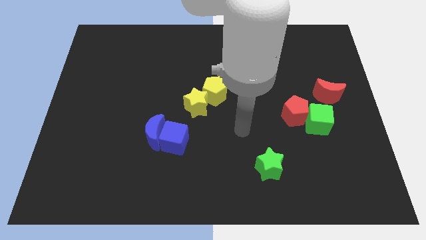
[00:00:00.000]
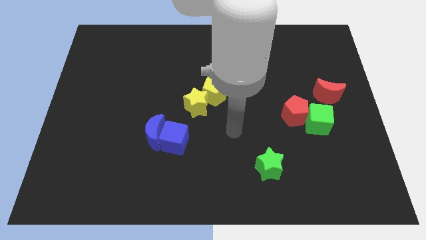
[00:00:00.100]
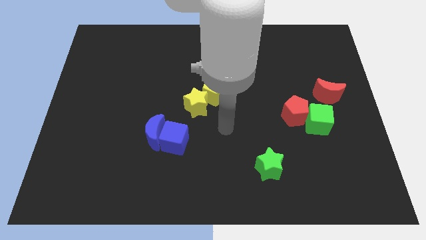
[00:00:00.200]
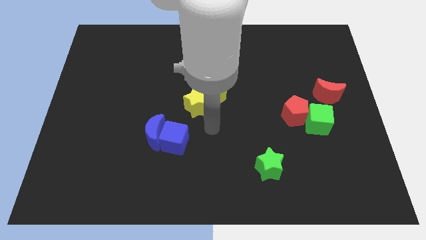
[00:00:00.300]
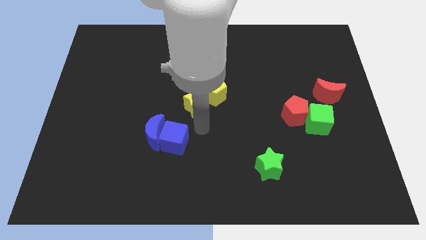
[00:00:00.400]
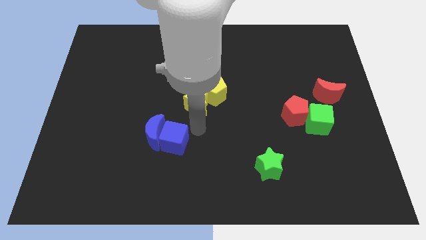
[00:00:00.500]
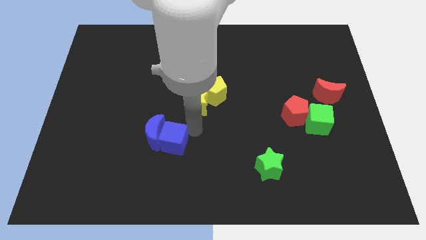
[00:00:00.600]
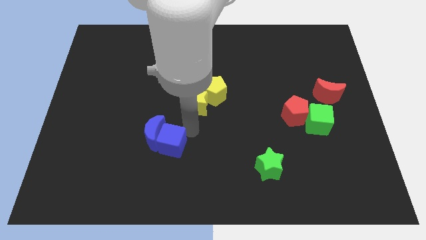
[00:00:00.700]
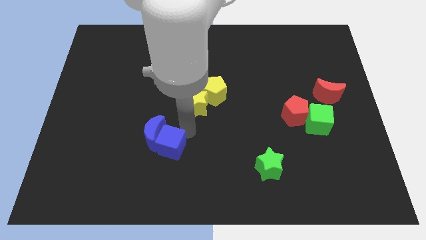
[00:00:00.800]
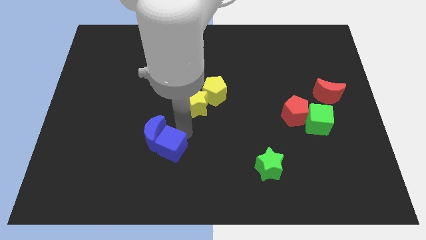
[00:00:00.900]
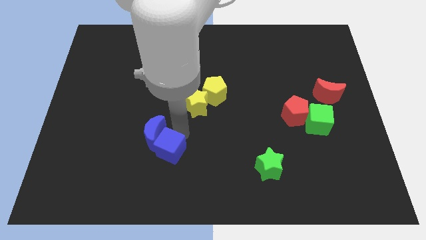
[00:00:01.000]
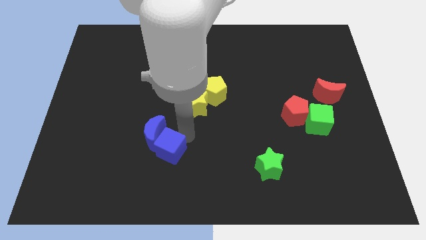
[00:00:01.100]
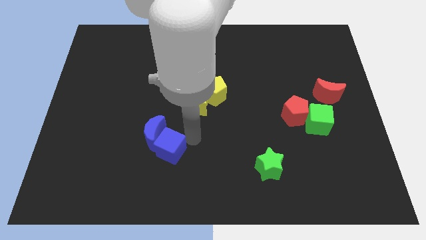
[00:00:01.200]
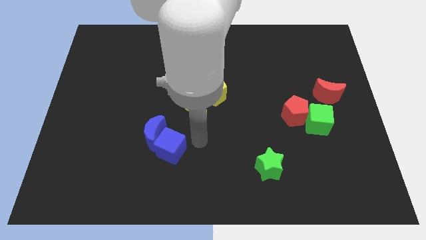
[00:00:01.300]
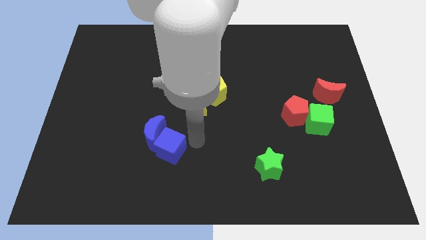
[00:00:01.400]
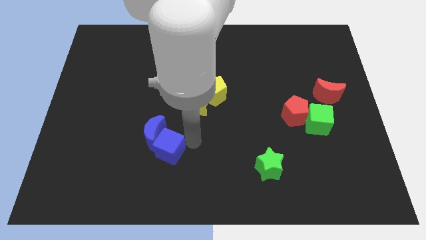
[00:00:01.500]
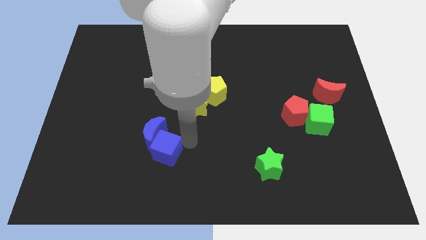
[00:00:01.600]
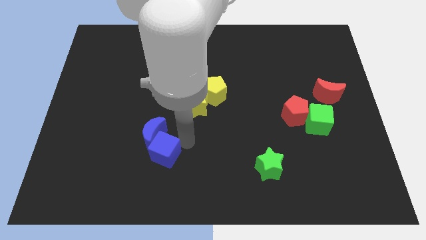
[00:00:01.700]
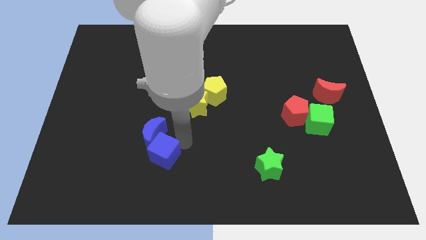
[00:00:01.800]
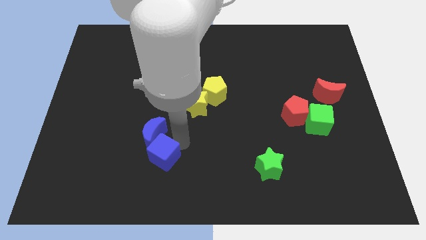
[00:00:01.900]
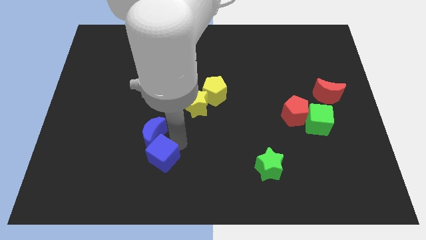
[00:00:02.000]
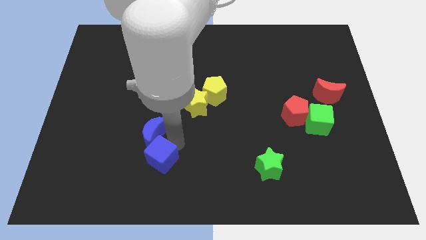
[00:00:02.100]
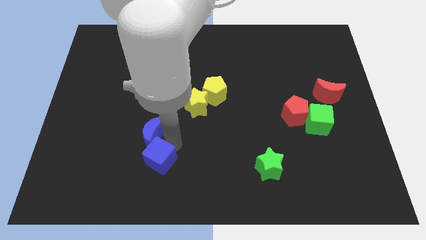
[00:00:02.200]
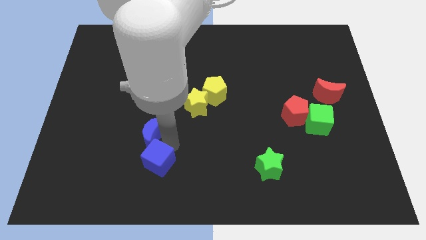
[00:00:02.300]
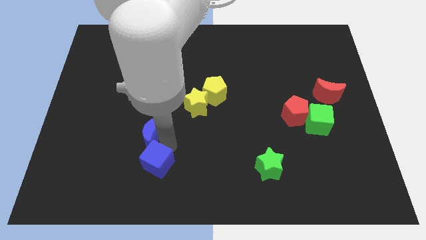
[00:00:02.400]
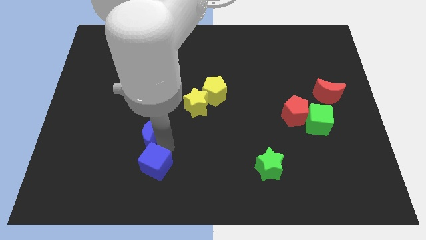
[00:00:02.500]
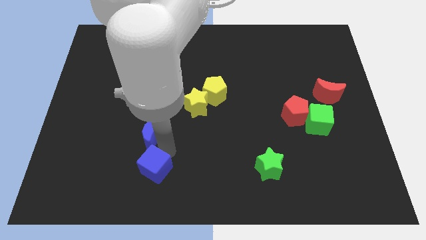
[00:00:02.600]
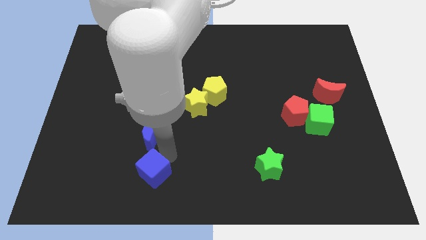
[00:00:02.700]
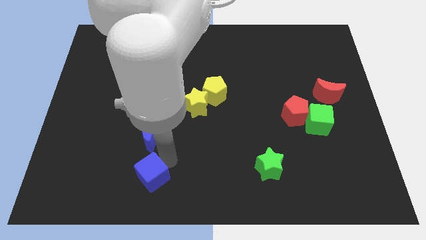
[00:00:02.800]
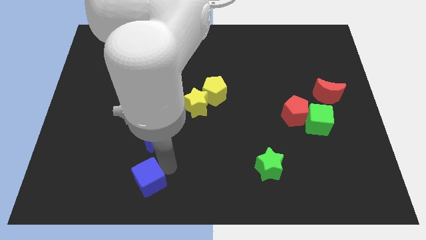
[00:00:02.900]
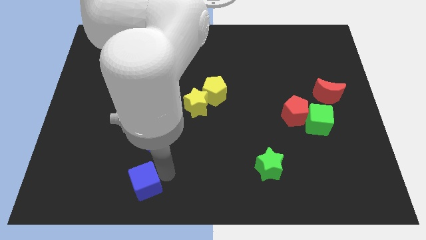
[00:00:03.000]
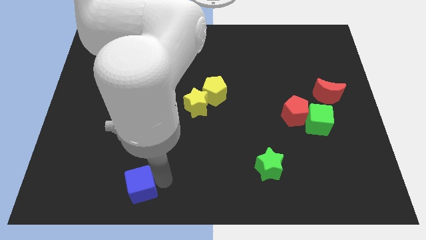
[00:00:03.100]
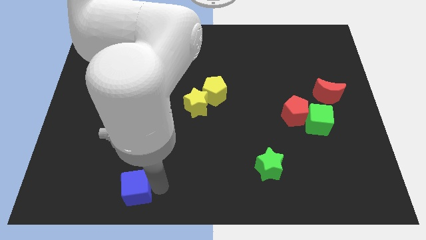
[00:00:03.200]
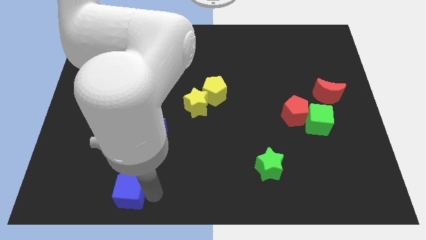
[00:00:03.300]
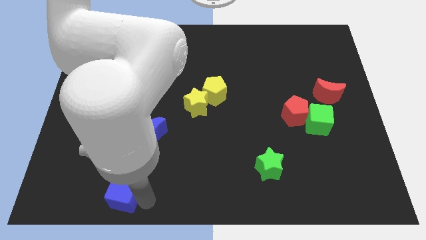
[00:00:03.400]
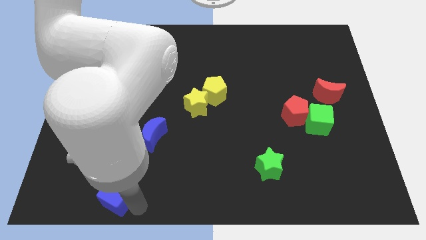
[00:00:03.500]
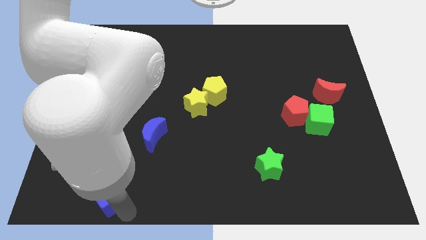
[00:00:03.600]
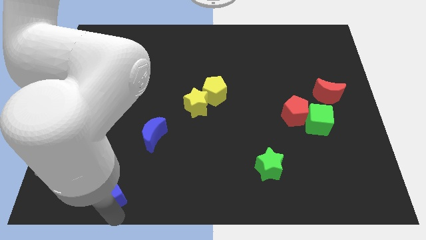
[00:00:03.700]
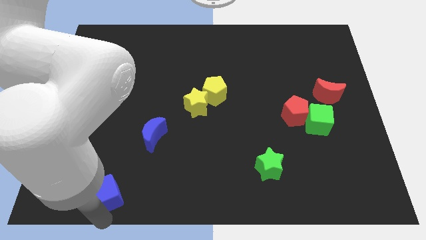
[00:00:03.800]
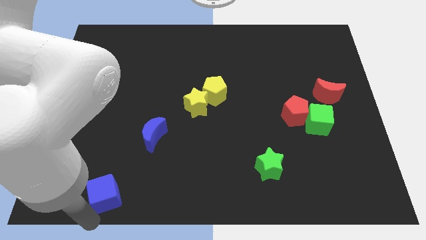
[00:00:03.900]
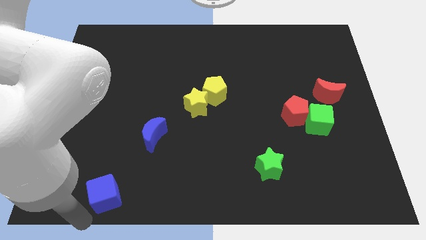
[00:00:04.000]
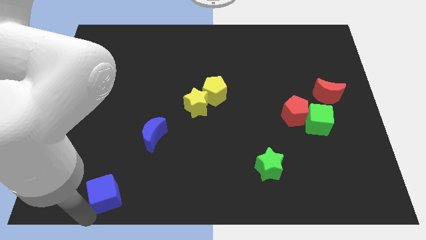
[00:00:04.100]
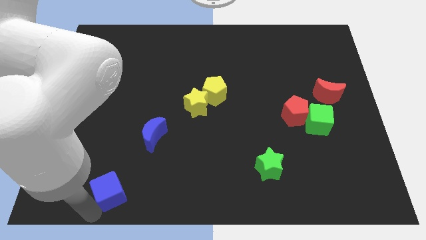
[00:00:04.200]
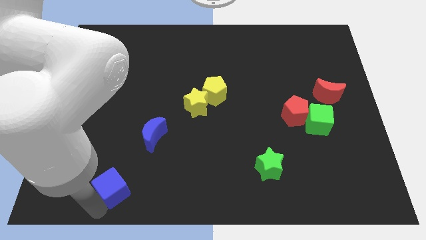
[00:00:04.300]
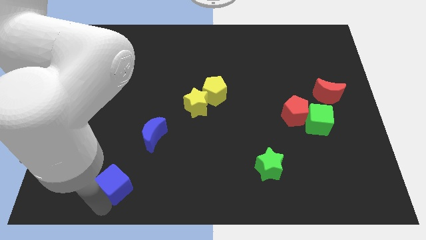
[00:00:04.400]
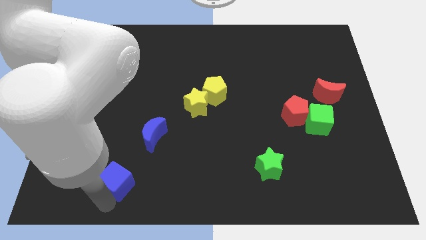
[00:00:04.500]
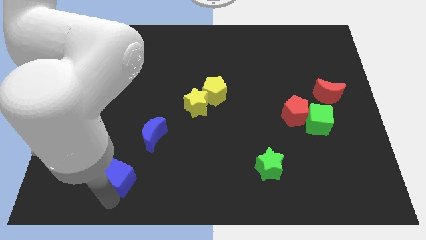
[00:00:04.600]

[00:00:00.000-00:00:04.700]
slightly slide the blue cube to the left

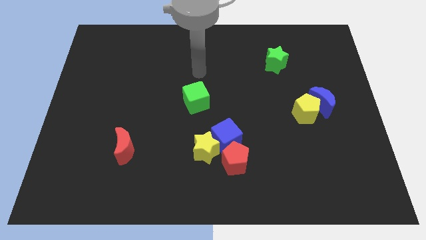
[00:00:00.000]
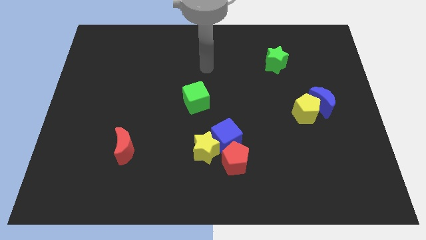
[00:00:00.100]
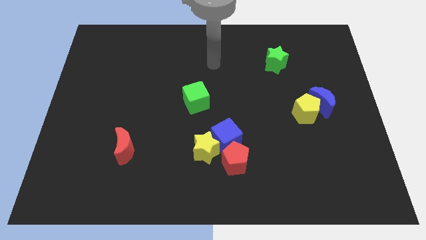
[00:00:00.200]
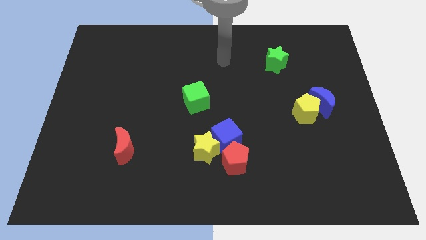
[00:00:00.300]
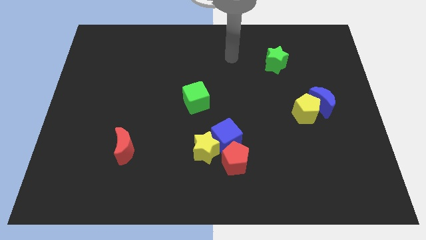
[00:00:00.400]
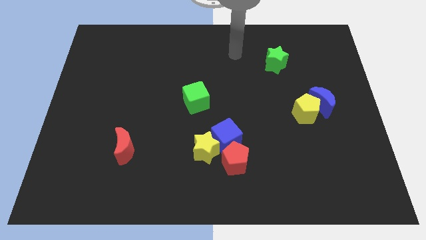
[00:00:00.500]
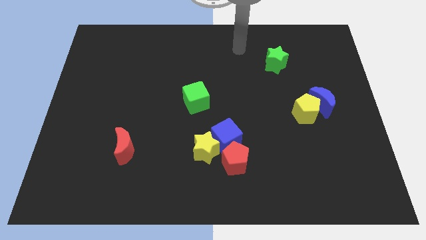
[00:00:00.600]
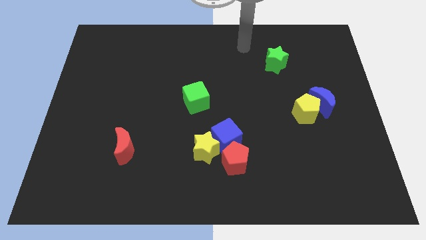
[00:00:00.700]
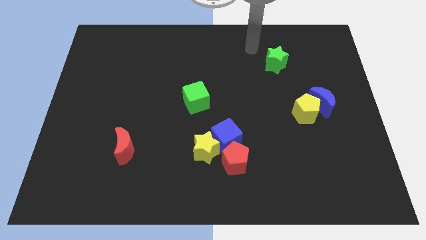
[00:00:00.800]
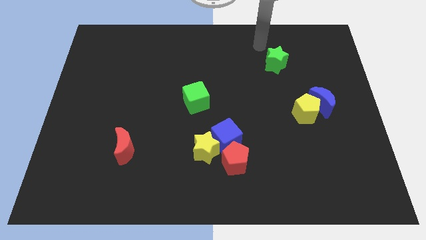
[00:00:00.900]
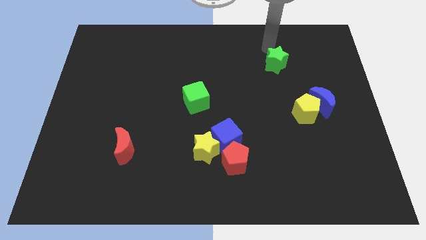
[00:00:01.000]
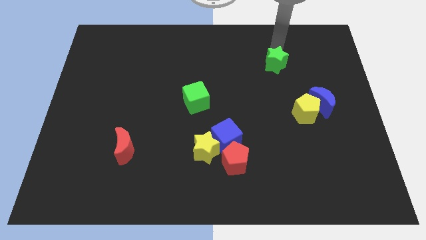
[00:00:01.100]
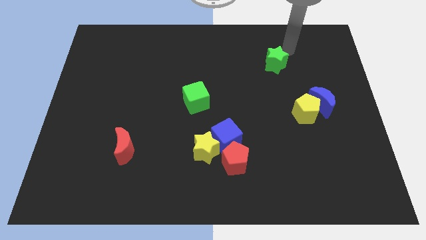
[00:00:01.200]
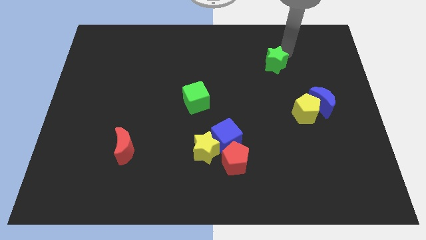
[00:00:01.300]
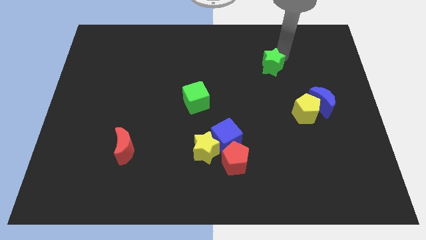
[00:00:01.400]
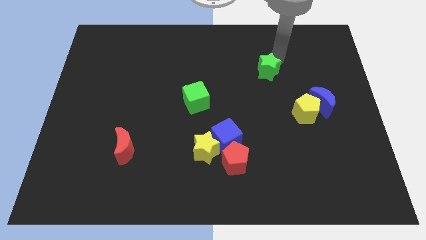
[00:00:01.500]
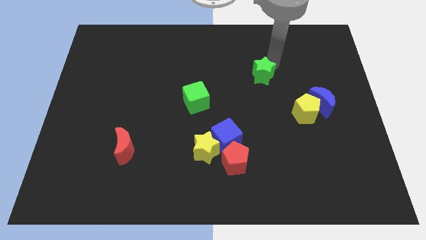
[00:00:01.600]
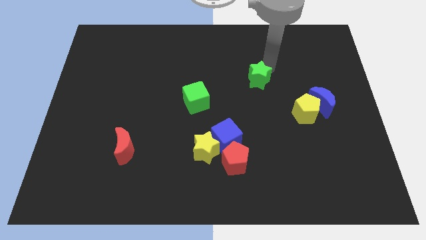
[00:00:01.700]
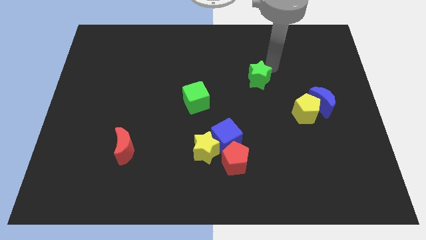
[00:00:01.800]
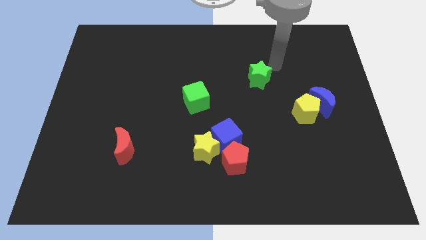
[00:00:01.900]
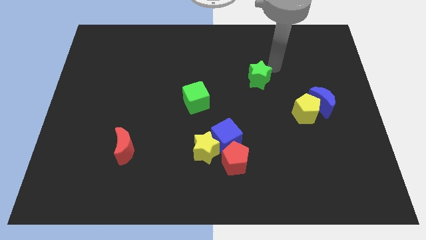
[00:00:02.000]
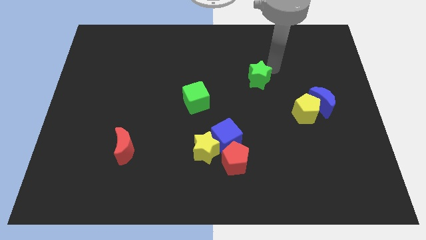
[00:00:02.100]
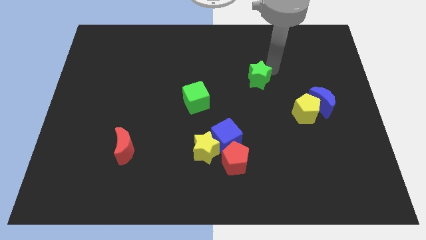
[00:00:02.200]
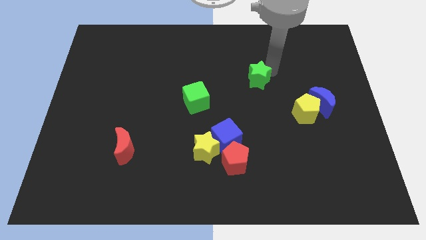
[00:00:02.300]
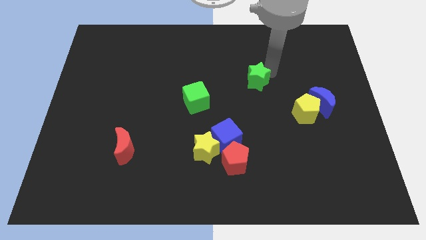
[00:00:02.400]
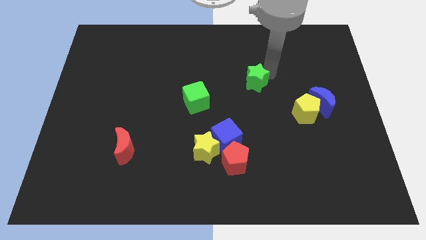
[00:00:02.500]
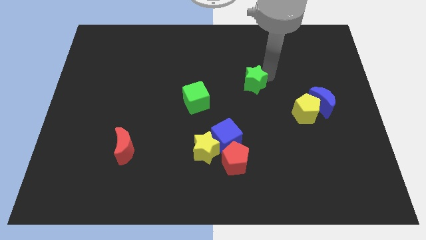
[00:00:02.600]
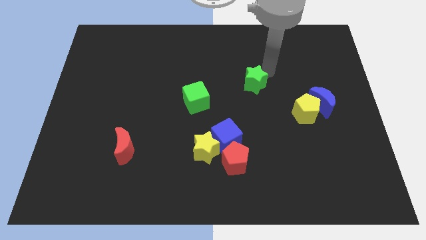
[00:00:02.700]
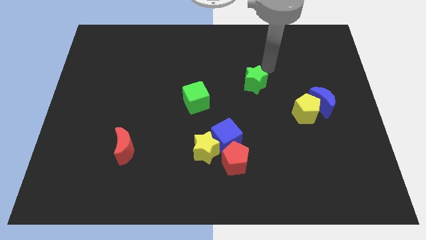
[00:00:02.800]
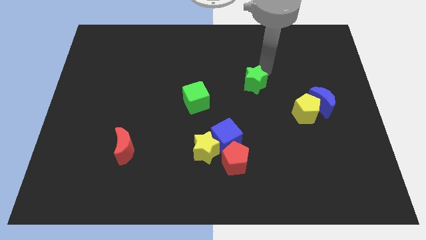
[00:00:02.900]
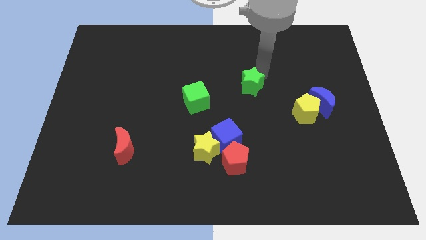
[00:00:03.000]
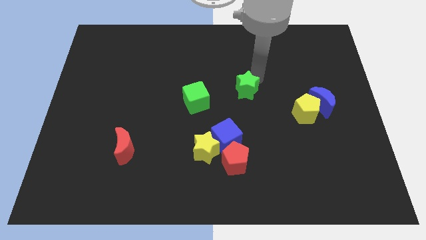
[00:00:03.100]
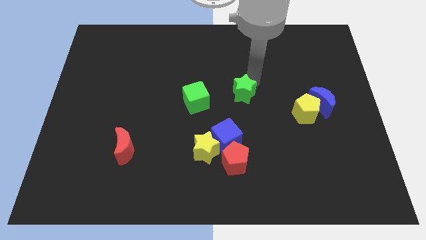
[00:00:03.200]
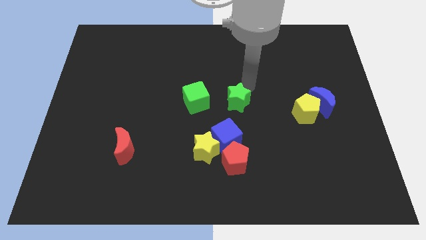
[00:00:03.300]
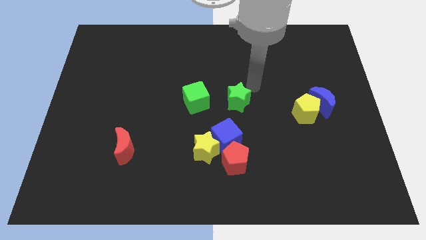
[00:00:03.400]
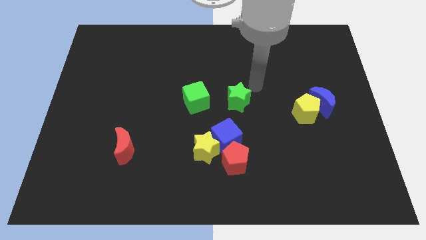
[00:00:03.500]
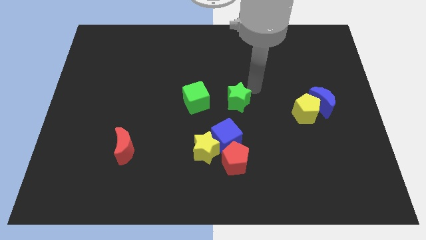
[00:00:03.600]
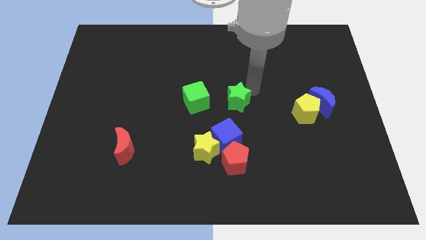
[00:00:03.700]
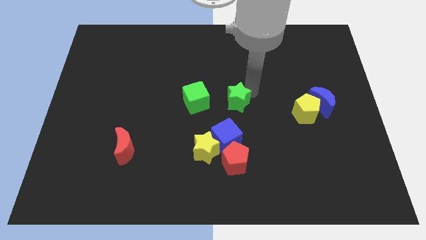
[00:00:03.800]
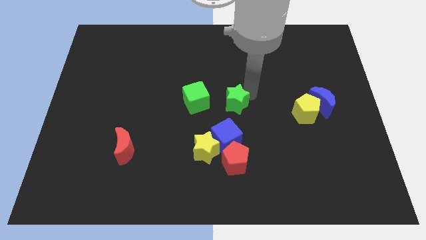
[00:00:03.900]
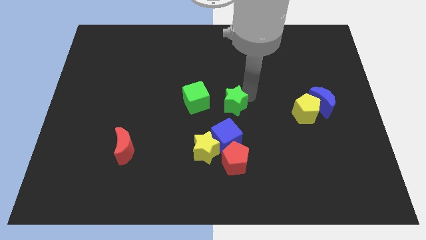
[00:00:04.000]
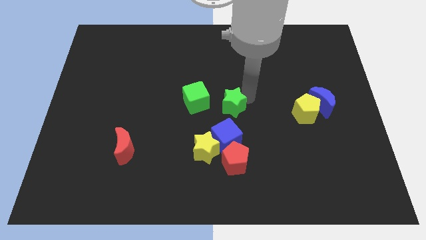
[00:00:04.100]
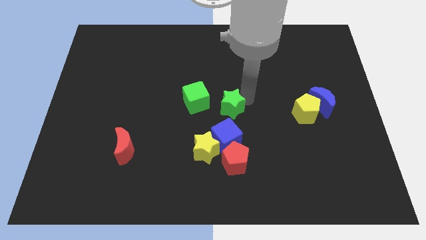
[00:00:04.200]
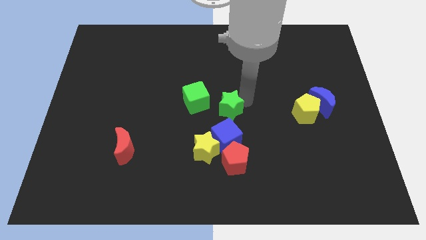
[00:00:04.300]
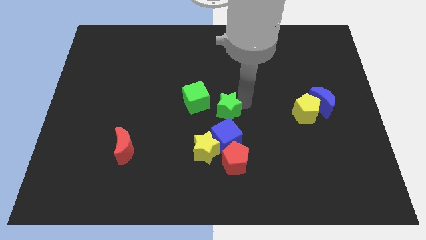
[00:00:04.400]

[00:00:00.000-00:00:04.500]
slide the green star downwards and to the left diagonally
